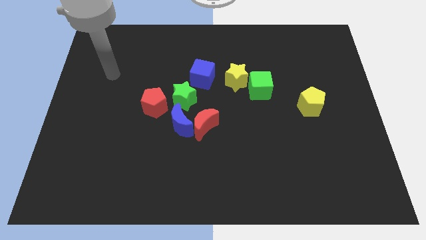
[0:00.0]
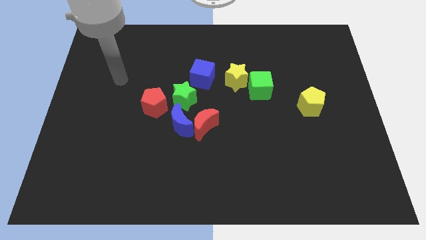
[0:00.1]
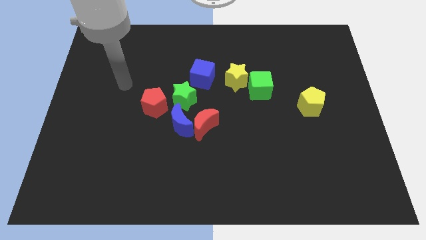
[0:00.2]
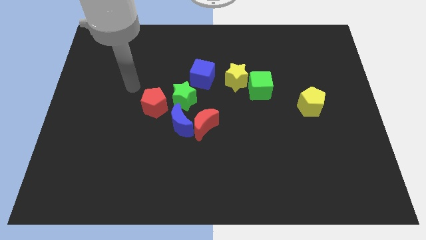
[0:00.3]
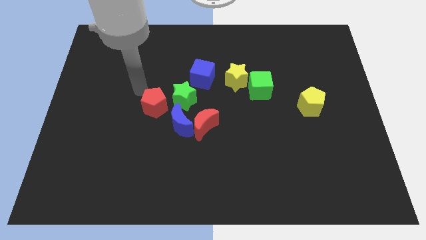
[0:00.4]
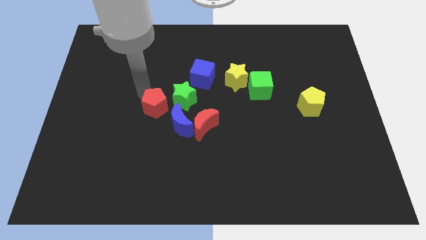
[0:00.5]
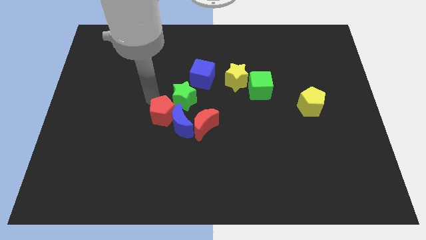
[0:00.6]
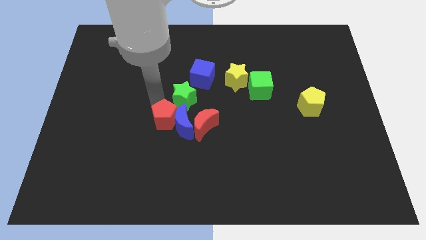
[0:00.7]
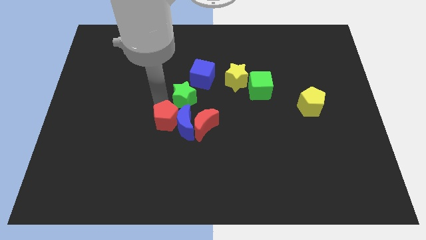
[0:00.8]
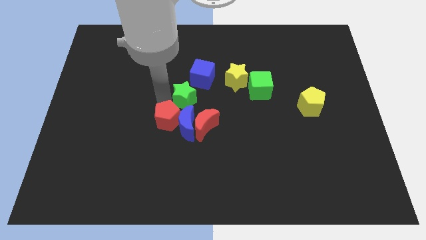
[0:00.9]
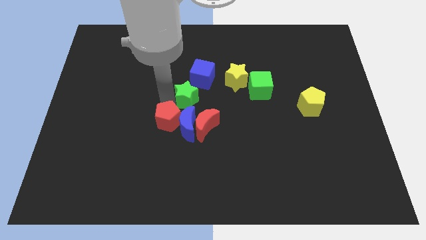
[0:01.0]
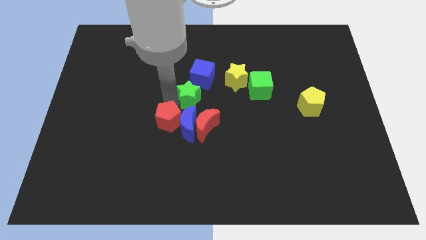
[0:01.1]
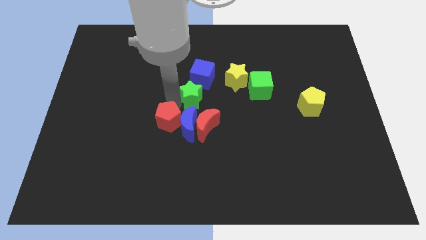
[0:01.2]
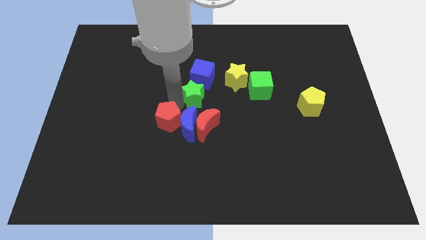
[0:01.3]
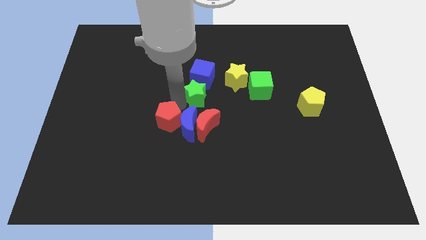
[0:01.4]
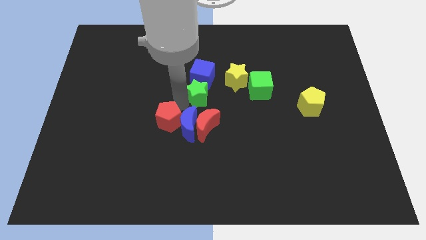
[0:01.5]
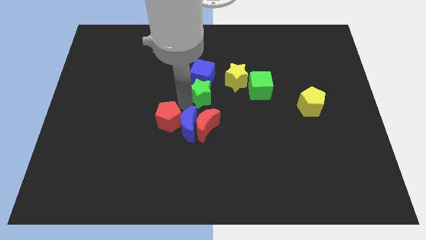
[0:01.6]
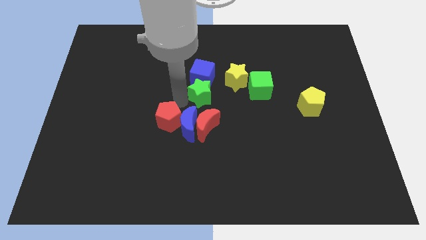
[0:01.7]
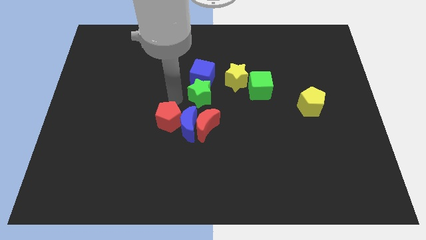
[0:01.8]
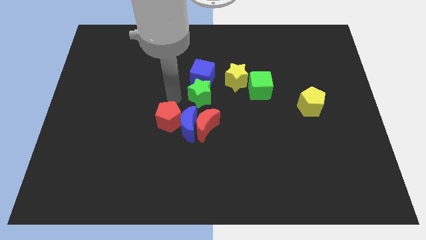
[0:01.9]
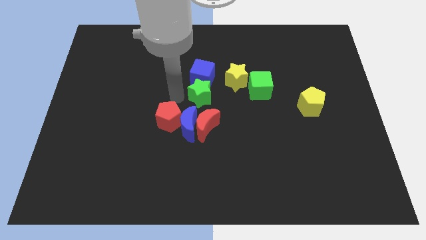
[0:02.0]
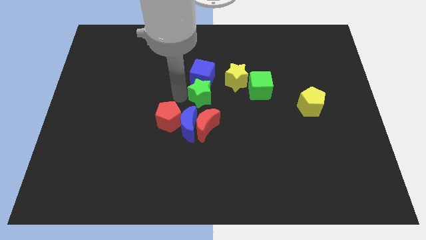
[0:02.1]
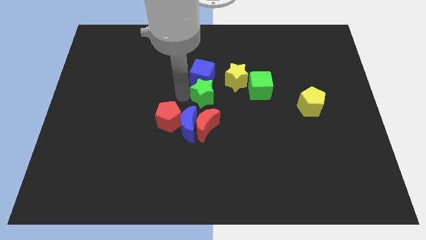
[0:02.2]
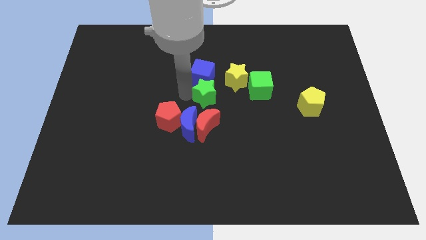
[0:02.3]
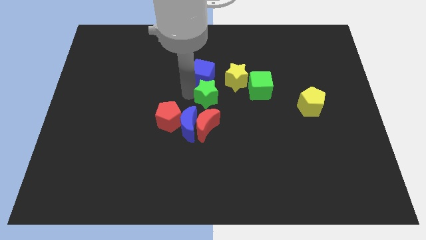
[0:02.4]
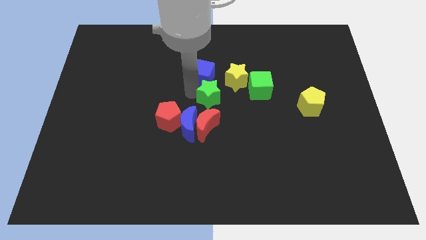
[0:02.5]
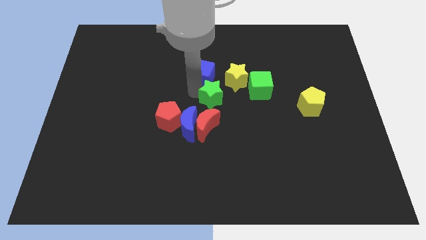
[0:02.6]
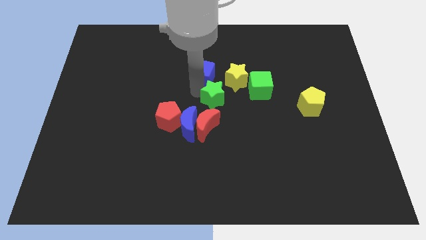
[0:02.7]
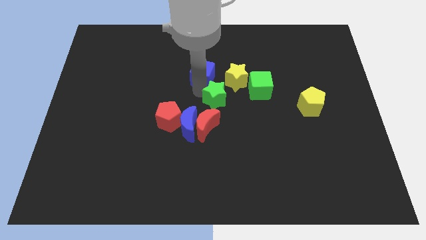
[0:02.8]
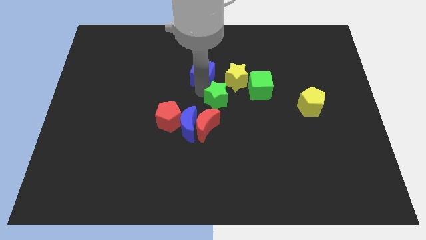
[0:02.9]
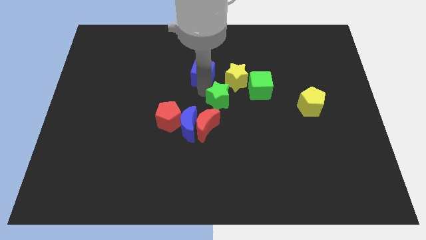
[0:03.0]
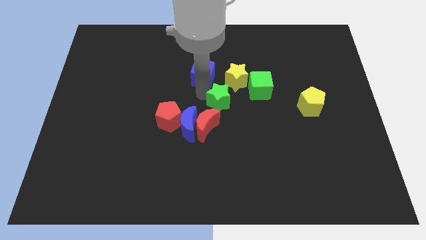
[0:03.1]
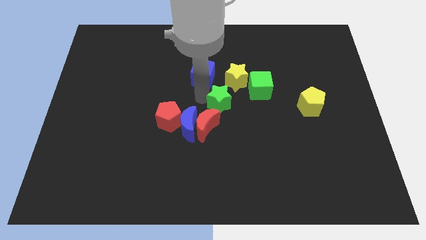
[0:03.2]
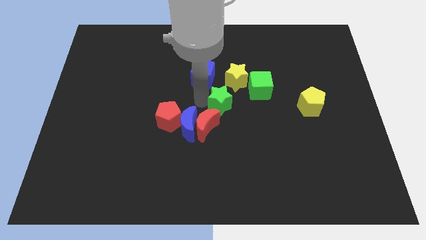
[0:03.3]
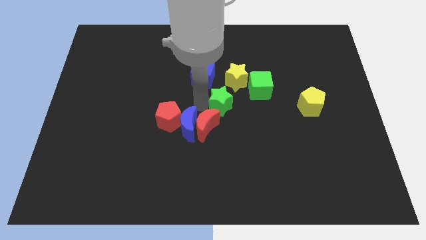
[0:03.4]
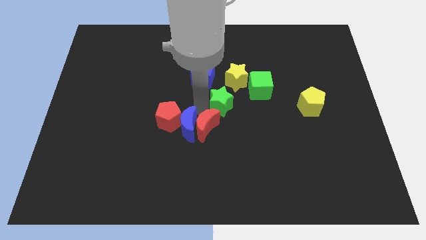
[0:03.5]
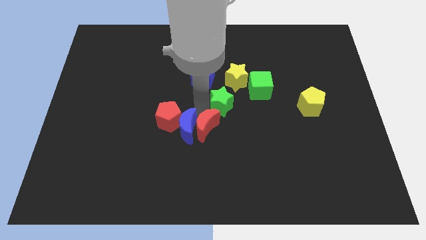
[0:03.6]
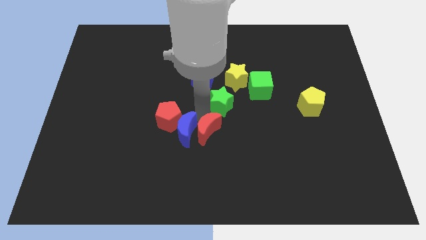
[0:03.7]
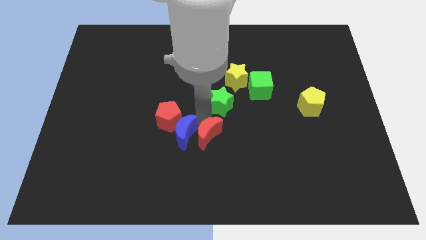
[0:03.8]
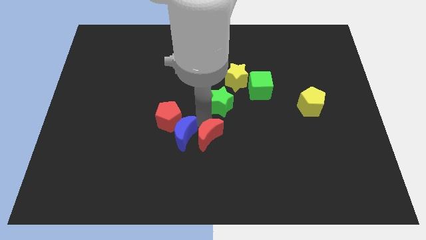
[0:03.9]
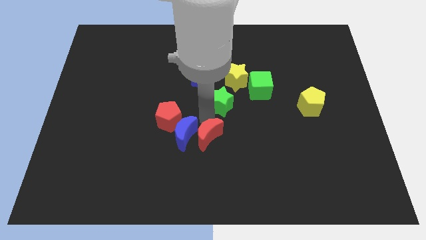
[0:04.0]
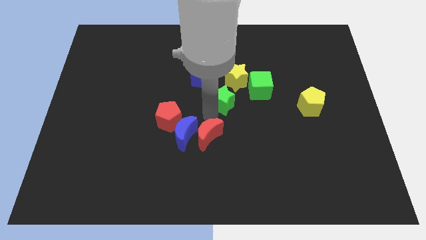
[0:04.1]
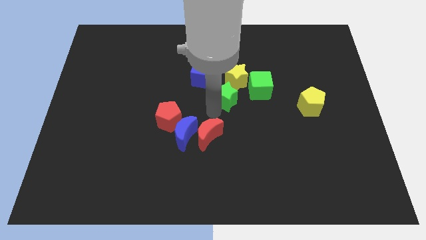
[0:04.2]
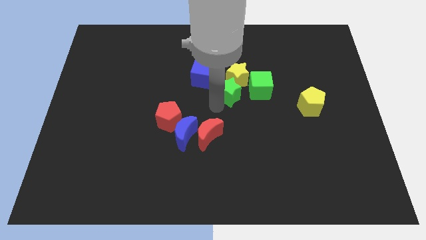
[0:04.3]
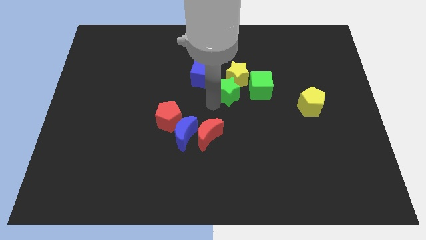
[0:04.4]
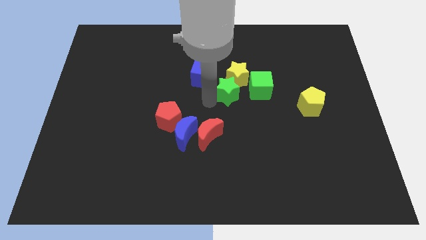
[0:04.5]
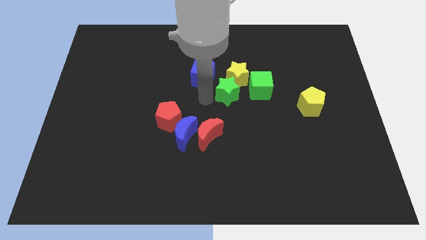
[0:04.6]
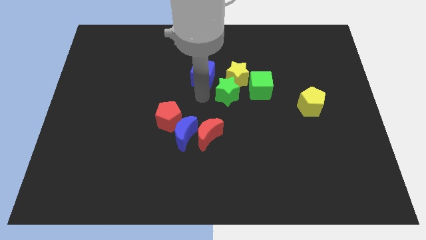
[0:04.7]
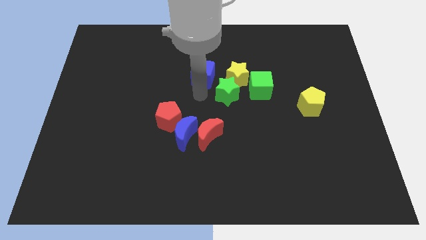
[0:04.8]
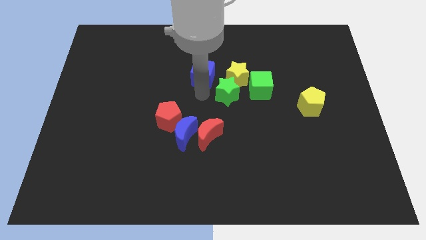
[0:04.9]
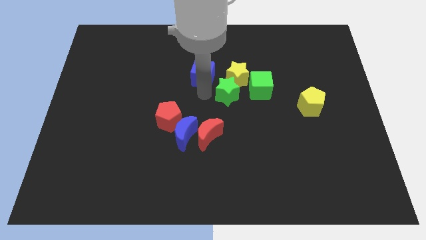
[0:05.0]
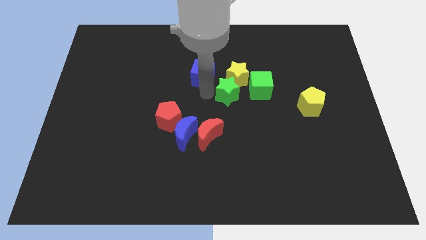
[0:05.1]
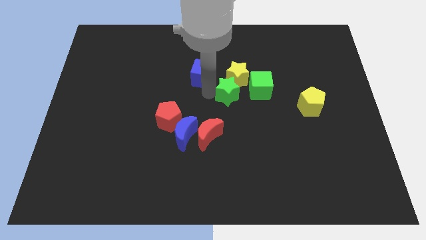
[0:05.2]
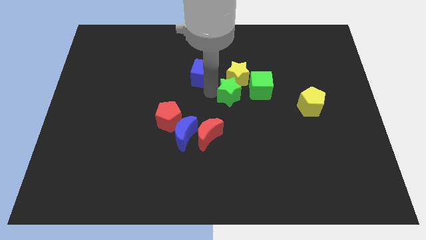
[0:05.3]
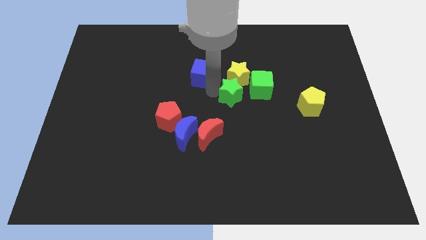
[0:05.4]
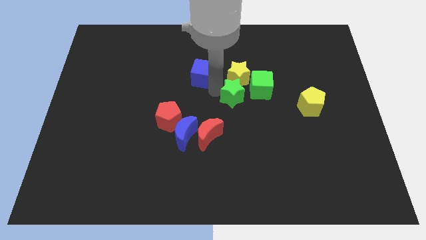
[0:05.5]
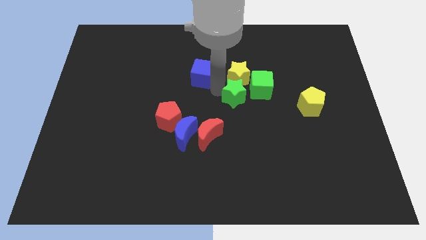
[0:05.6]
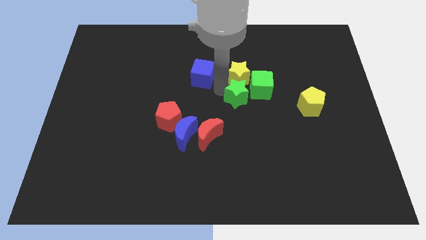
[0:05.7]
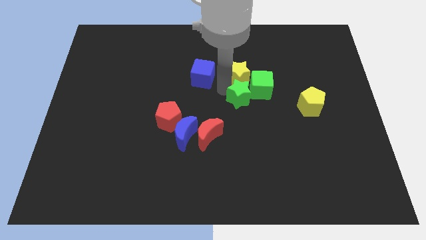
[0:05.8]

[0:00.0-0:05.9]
move the green star next to the green cube

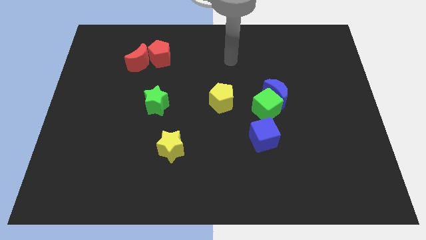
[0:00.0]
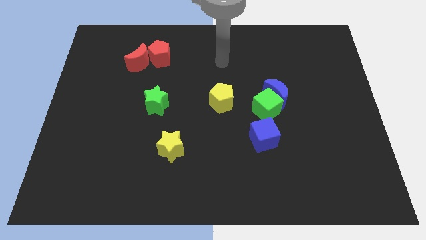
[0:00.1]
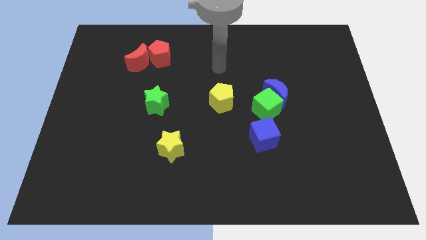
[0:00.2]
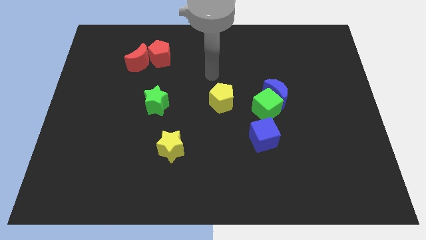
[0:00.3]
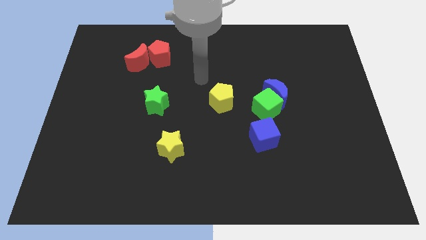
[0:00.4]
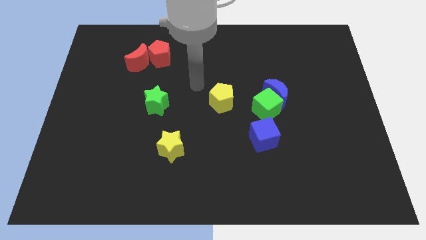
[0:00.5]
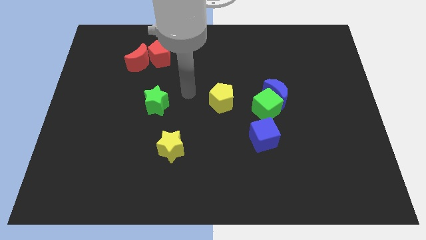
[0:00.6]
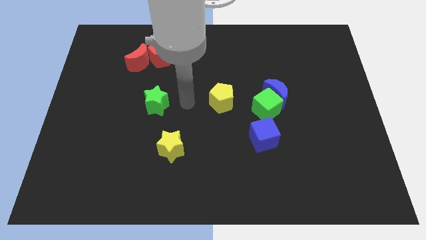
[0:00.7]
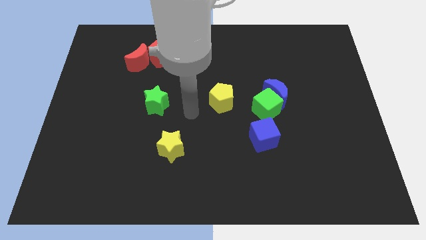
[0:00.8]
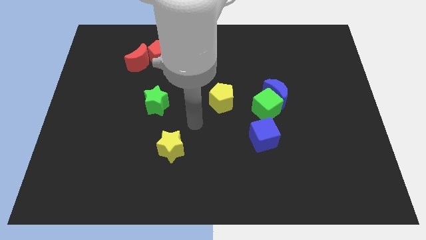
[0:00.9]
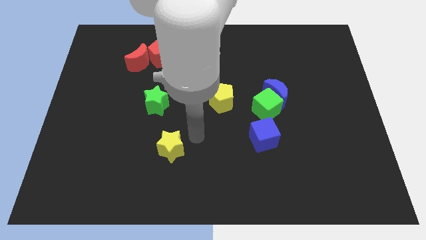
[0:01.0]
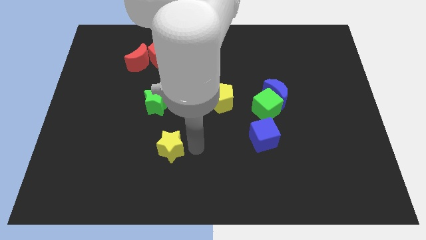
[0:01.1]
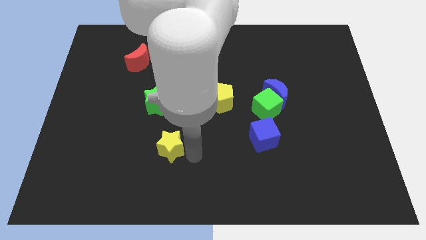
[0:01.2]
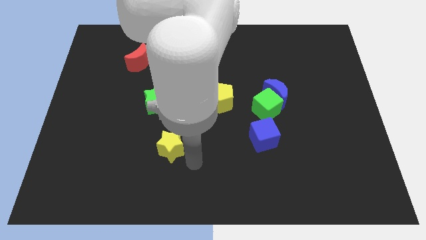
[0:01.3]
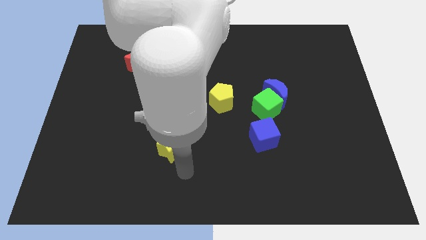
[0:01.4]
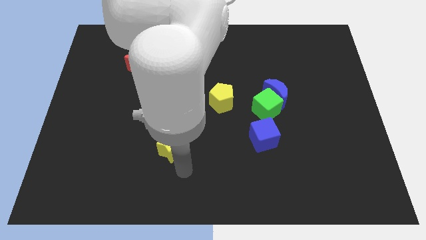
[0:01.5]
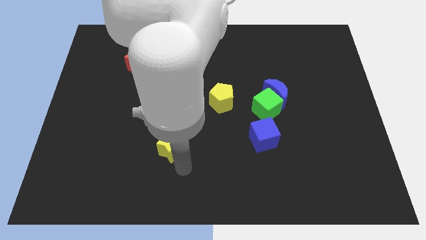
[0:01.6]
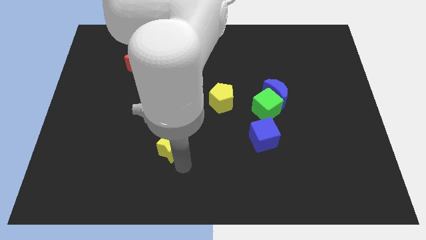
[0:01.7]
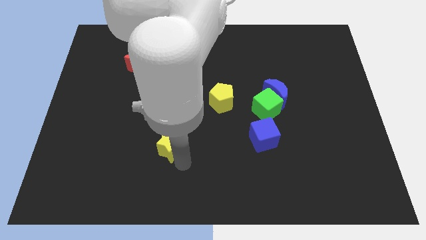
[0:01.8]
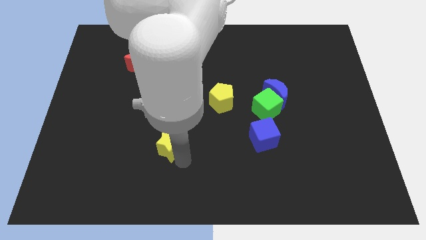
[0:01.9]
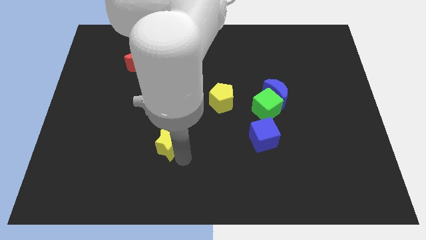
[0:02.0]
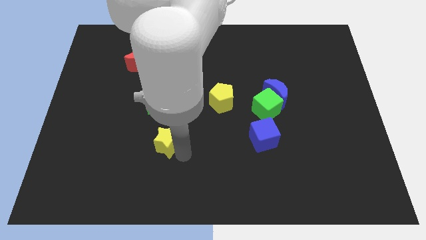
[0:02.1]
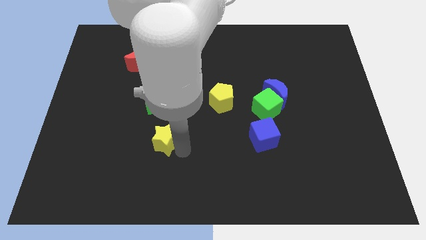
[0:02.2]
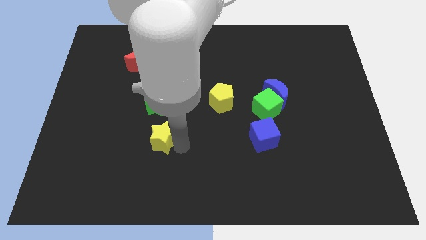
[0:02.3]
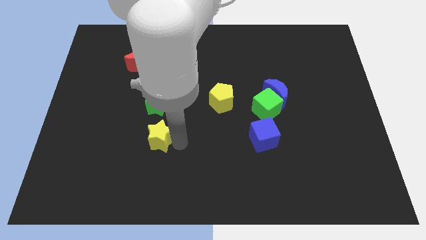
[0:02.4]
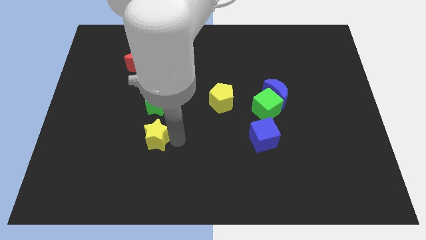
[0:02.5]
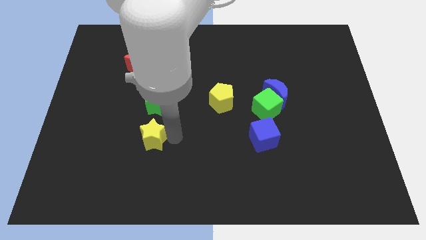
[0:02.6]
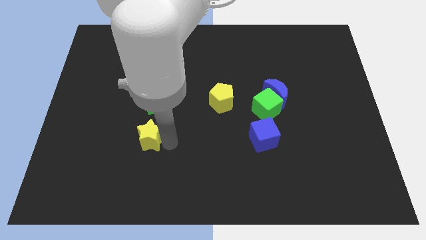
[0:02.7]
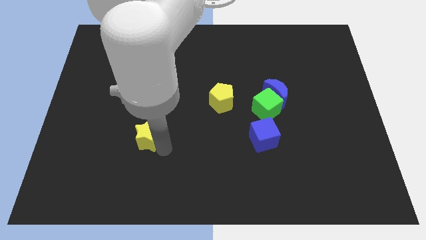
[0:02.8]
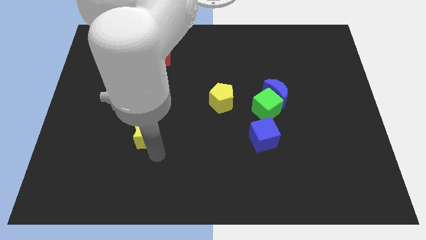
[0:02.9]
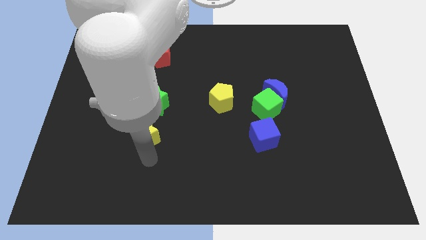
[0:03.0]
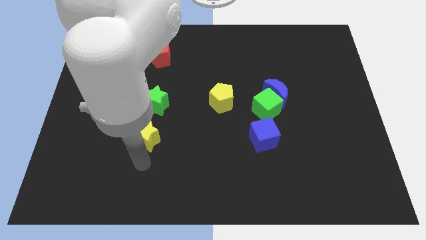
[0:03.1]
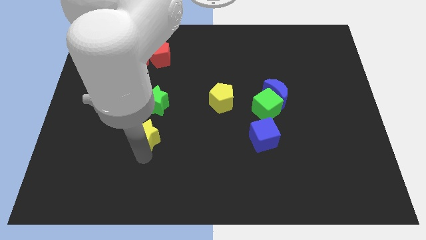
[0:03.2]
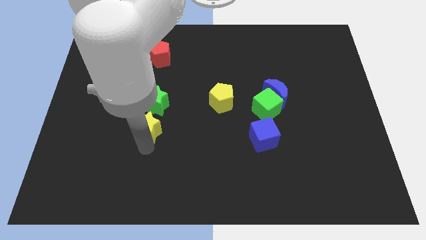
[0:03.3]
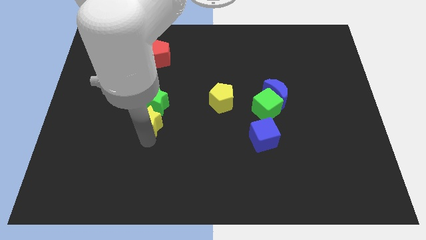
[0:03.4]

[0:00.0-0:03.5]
put the yellow star to the green star
